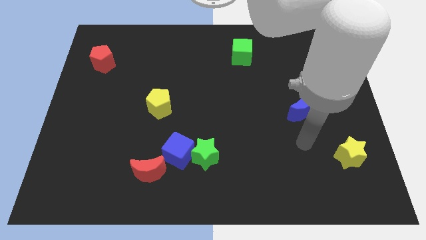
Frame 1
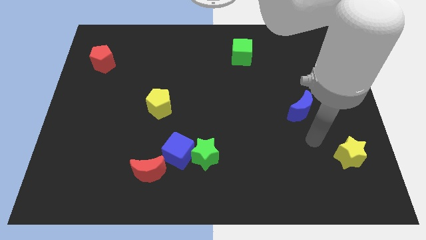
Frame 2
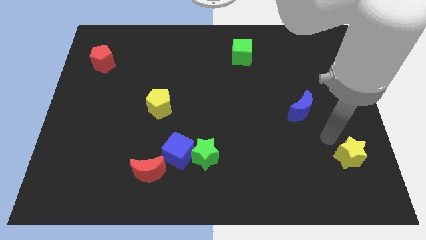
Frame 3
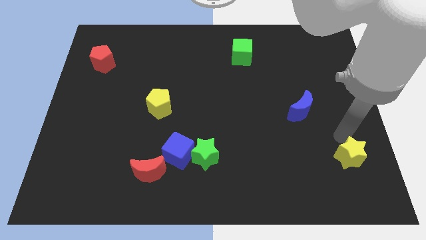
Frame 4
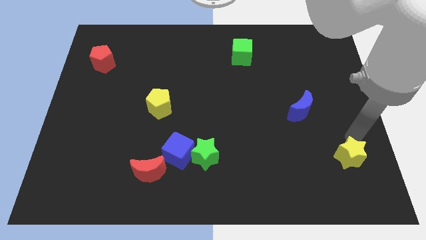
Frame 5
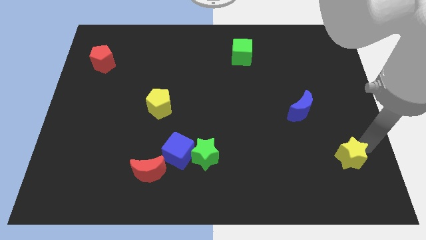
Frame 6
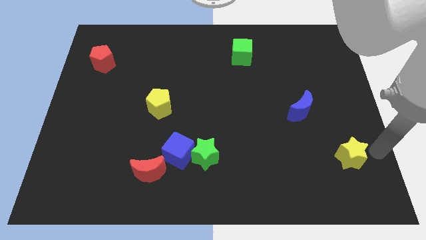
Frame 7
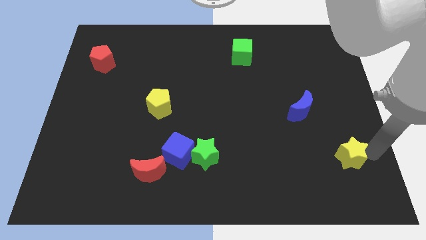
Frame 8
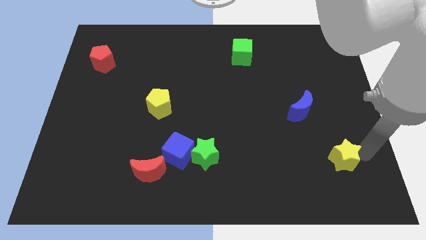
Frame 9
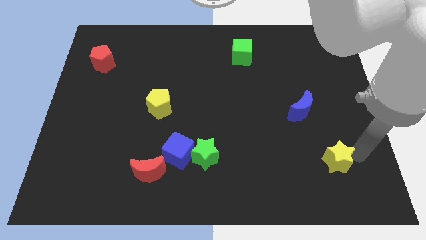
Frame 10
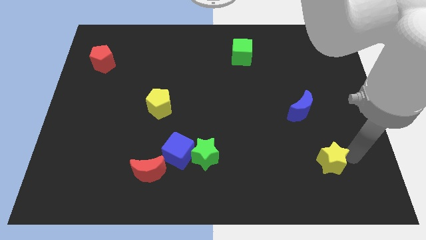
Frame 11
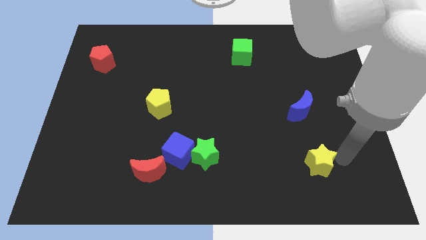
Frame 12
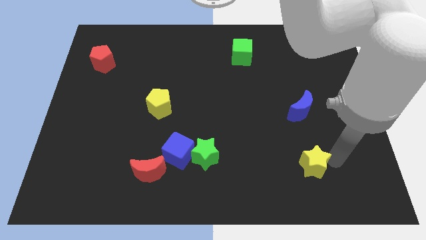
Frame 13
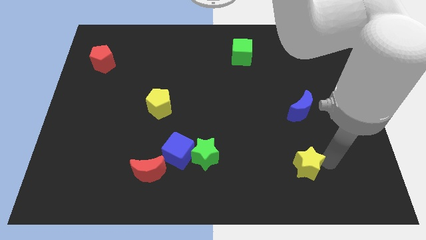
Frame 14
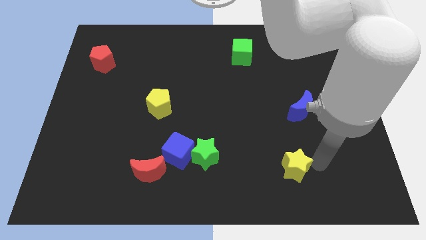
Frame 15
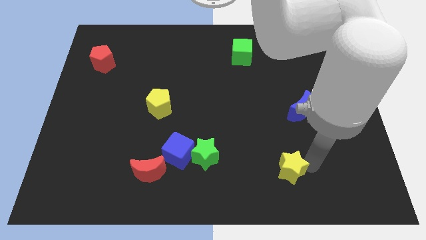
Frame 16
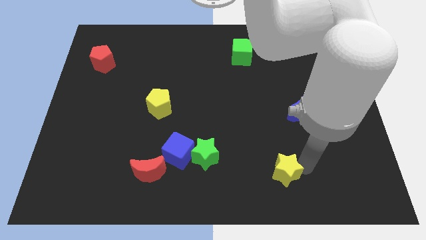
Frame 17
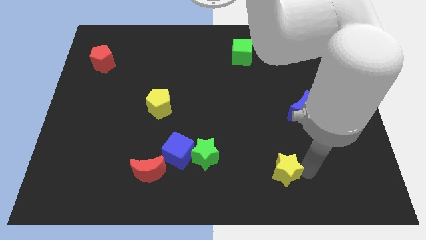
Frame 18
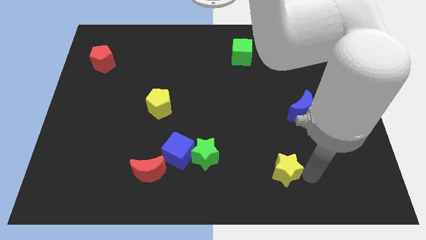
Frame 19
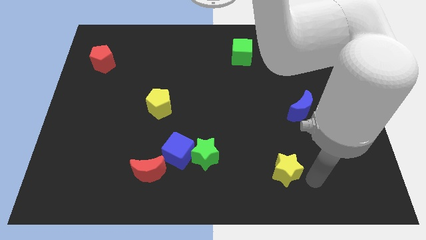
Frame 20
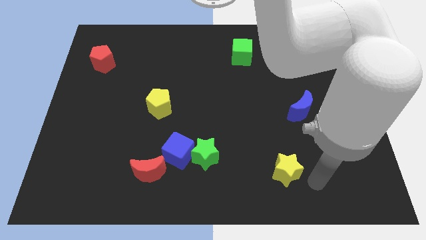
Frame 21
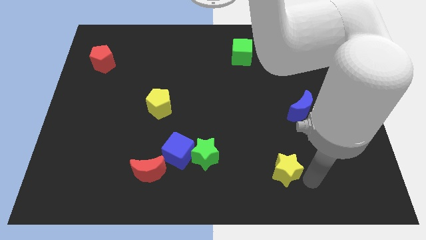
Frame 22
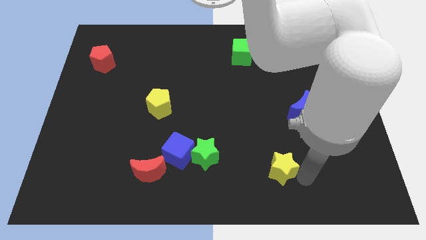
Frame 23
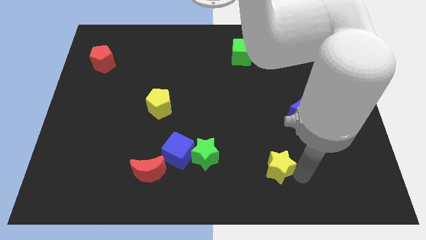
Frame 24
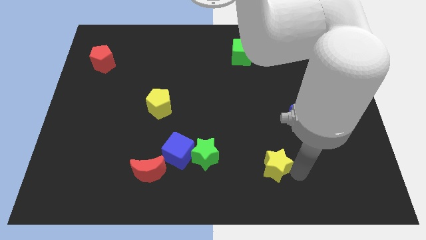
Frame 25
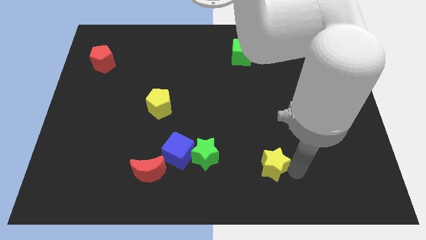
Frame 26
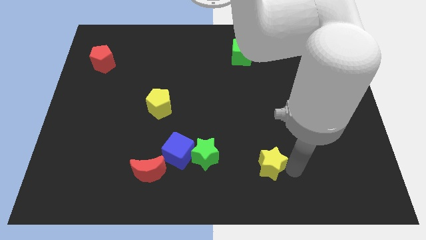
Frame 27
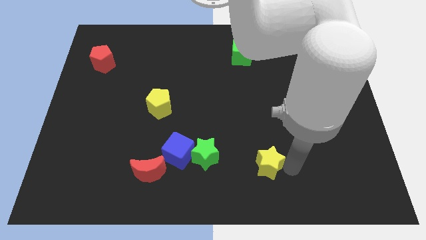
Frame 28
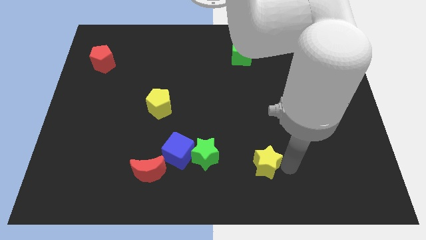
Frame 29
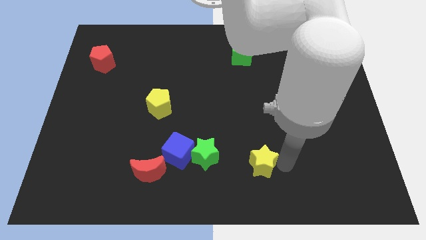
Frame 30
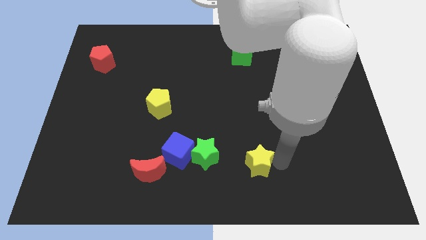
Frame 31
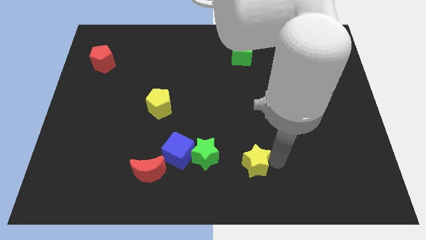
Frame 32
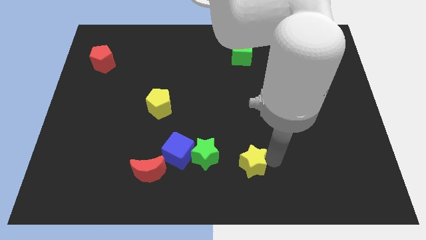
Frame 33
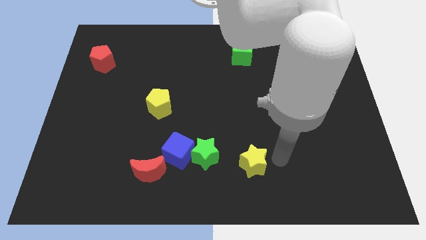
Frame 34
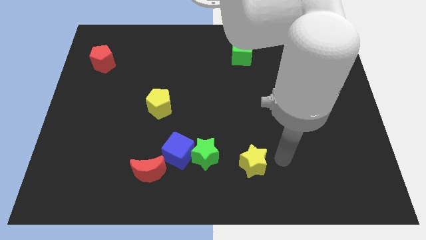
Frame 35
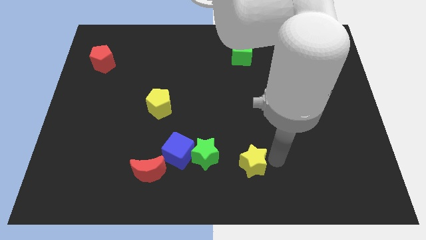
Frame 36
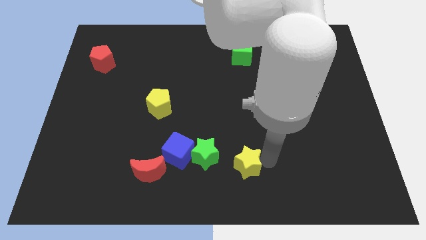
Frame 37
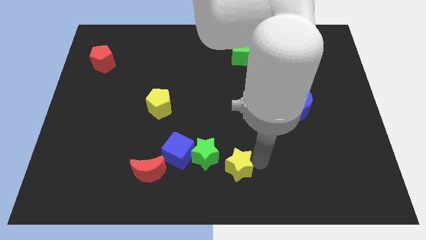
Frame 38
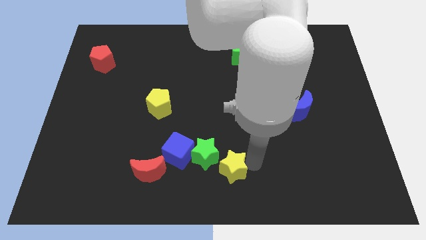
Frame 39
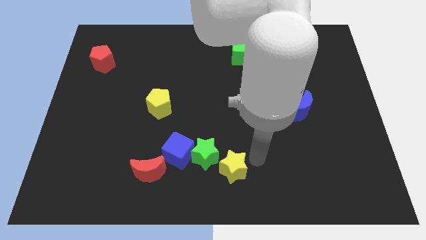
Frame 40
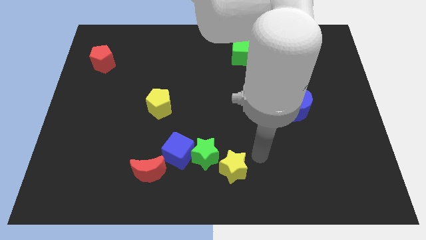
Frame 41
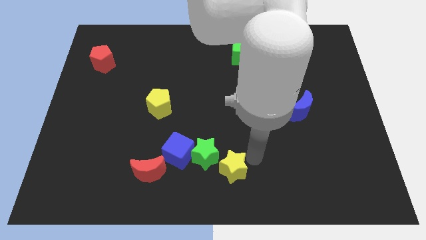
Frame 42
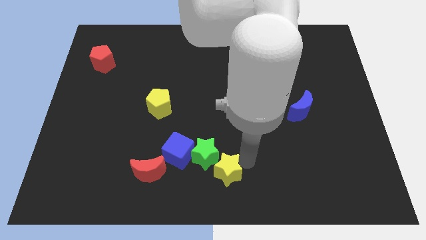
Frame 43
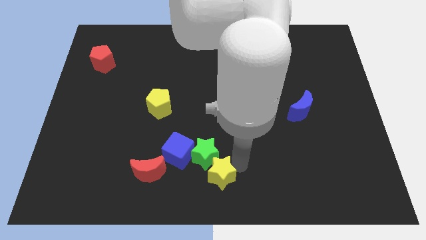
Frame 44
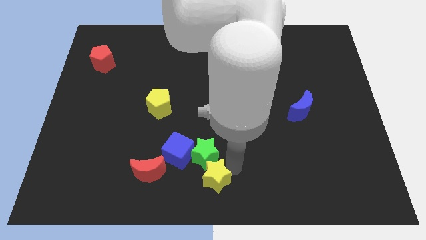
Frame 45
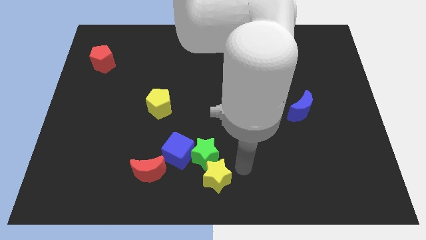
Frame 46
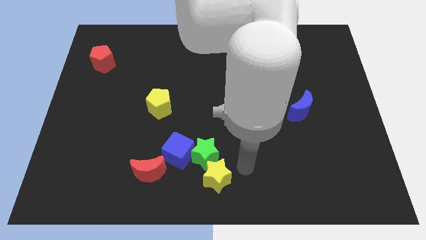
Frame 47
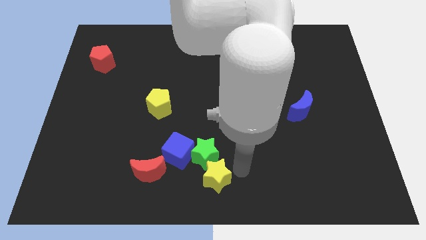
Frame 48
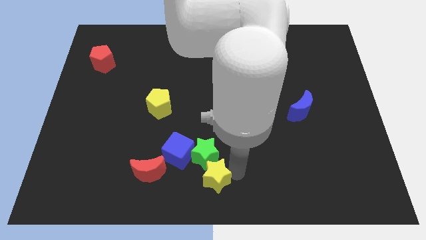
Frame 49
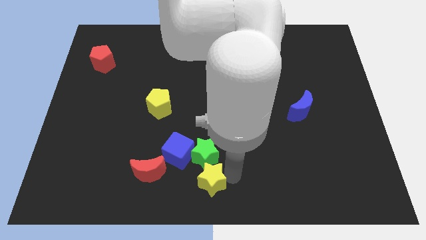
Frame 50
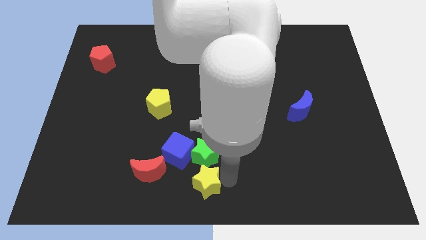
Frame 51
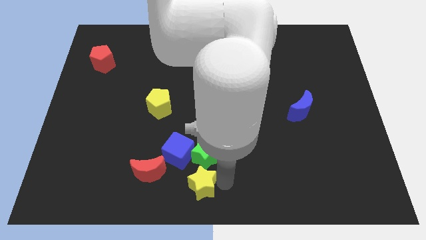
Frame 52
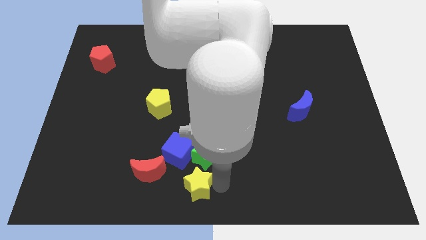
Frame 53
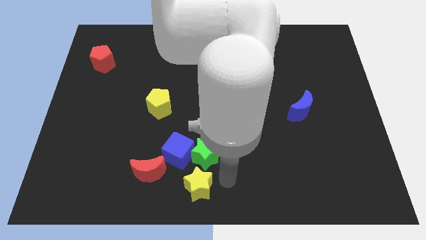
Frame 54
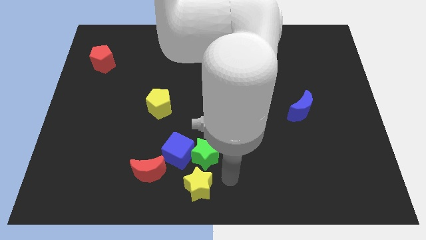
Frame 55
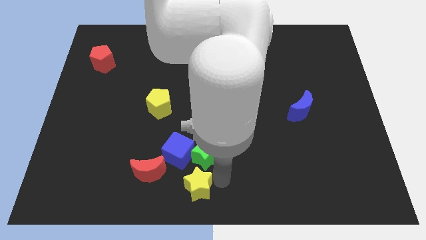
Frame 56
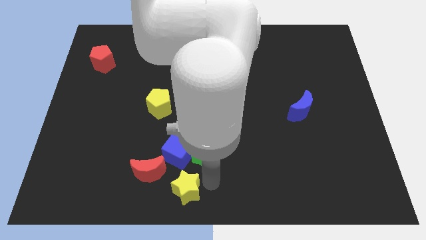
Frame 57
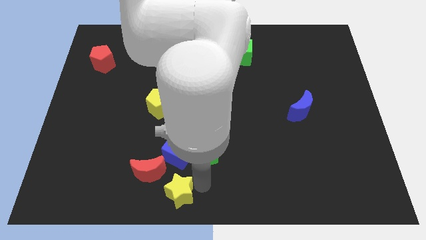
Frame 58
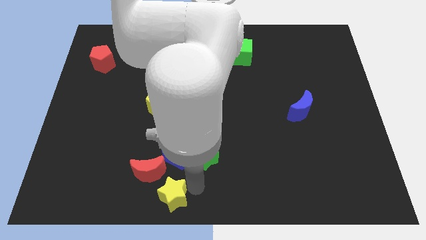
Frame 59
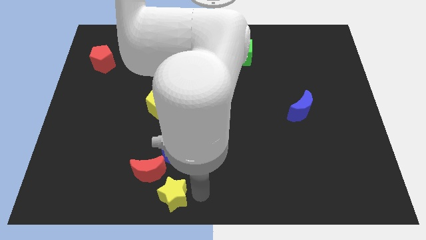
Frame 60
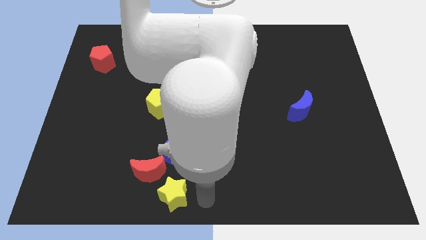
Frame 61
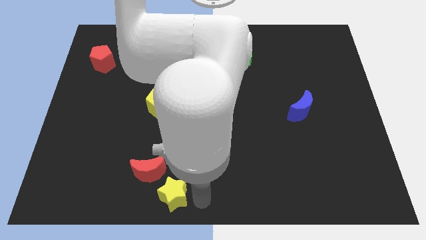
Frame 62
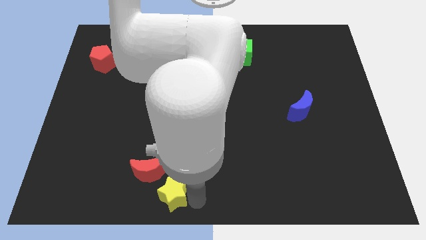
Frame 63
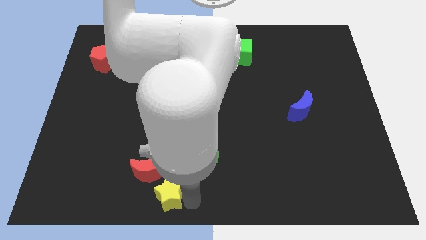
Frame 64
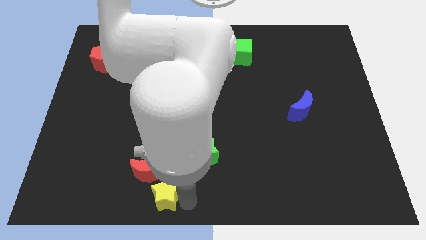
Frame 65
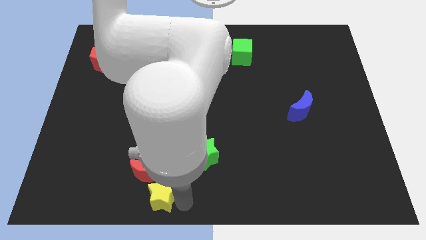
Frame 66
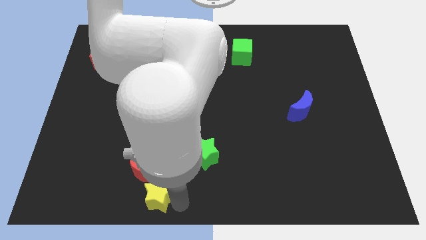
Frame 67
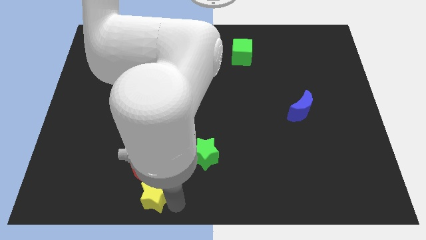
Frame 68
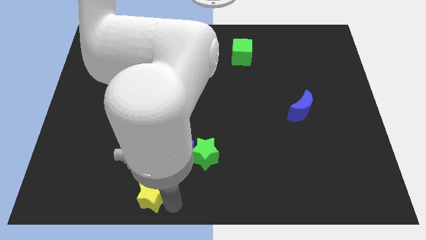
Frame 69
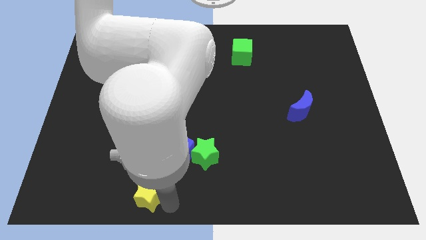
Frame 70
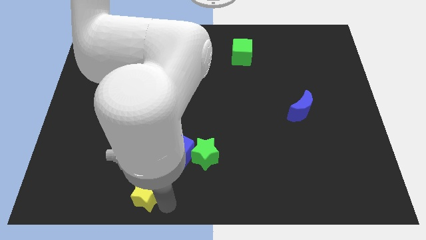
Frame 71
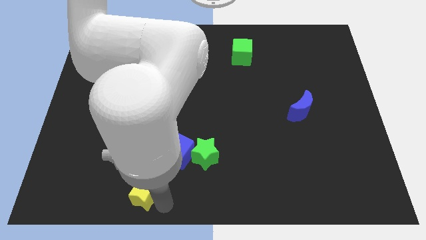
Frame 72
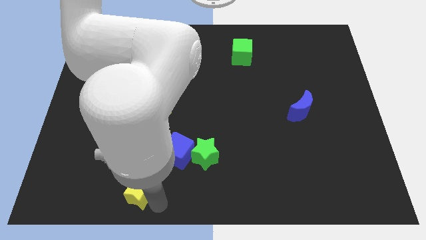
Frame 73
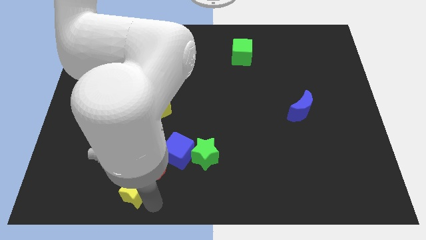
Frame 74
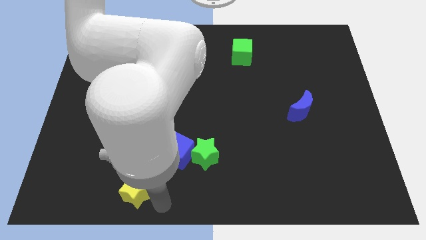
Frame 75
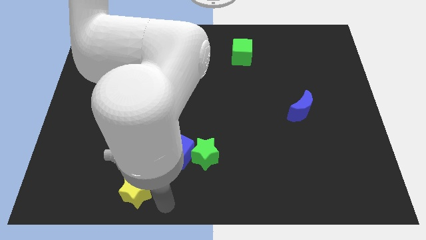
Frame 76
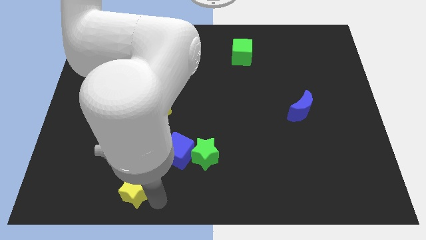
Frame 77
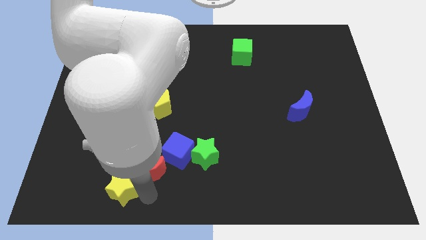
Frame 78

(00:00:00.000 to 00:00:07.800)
slide the yellow star just left of the red moon
